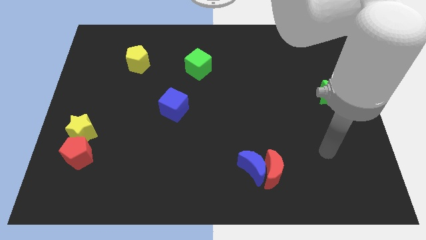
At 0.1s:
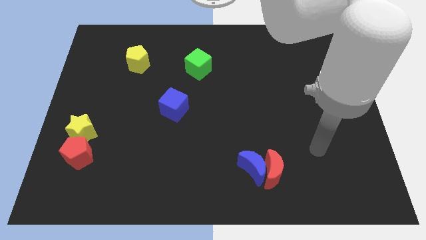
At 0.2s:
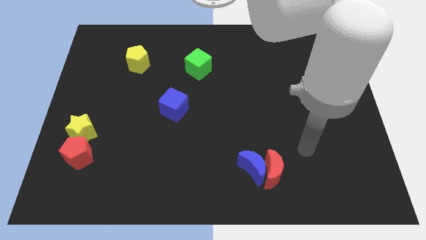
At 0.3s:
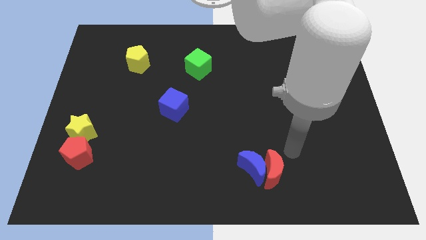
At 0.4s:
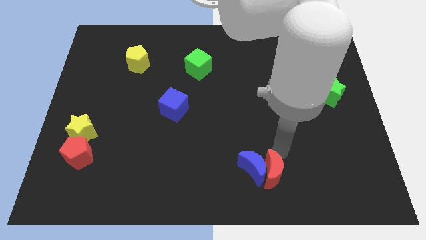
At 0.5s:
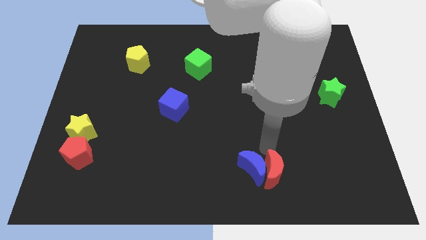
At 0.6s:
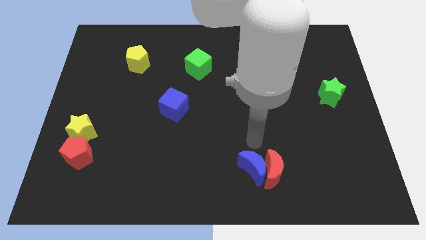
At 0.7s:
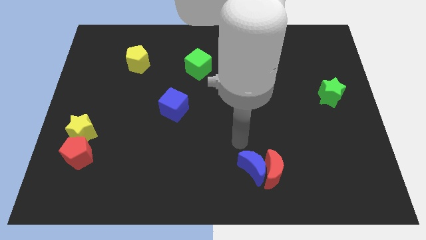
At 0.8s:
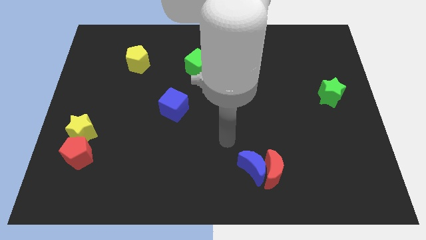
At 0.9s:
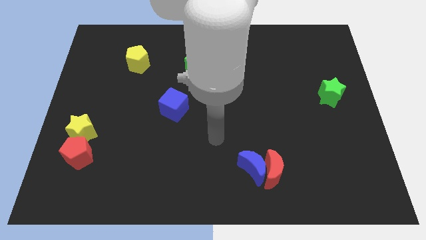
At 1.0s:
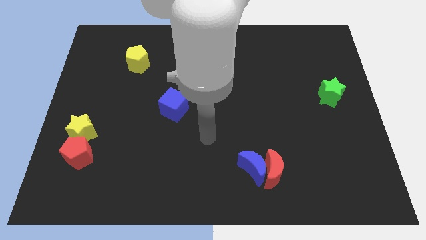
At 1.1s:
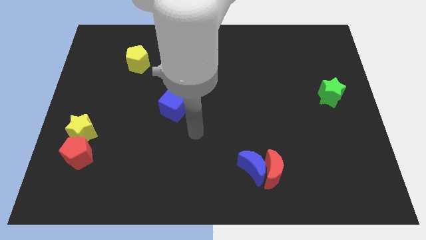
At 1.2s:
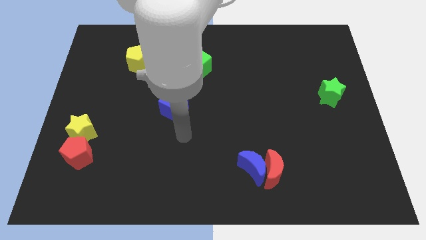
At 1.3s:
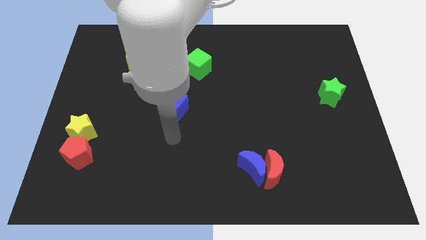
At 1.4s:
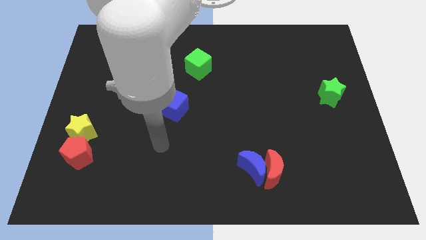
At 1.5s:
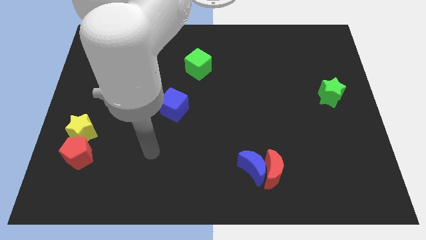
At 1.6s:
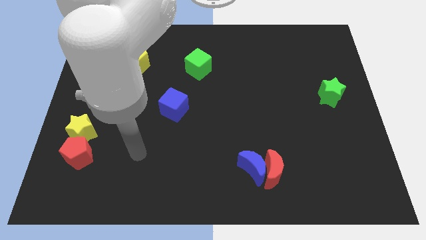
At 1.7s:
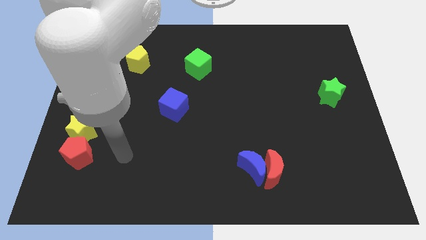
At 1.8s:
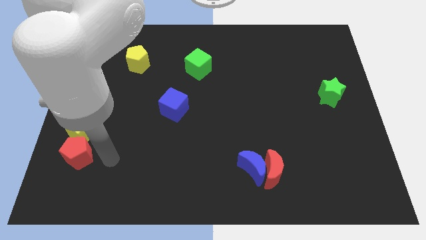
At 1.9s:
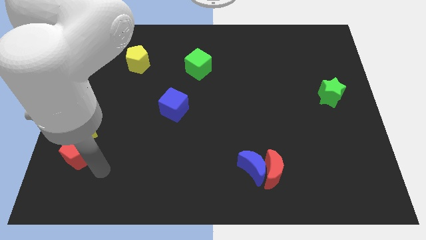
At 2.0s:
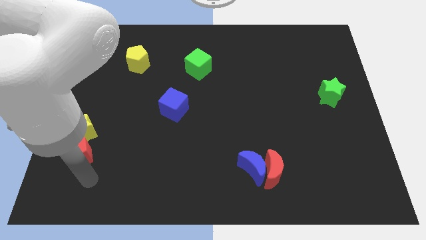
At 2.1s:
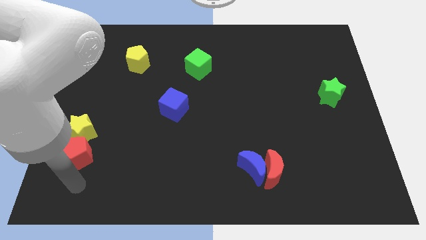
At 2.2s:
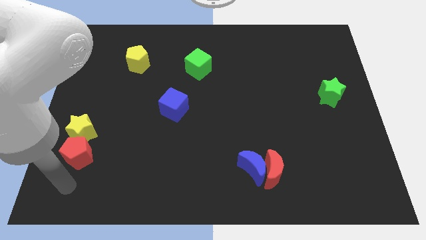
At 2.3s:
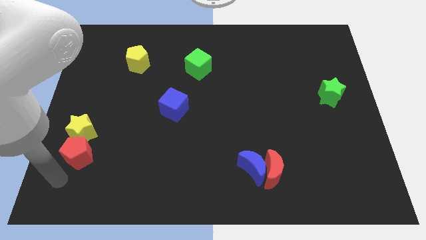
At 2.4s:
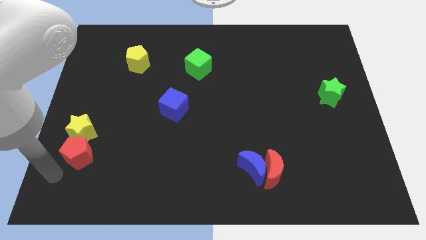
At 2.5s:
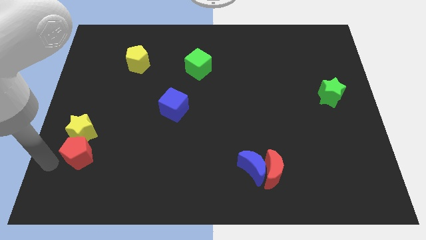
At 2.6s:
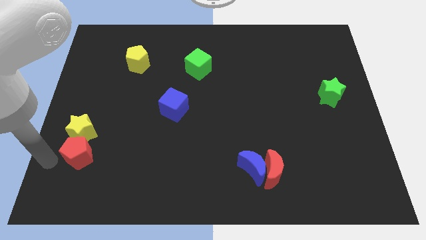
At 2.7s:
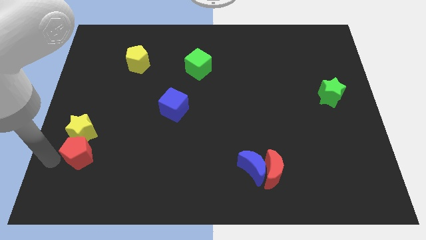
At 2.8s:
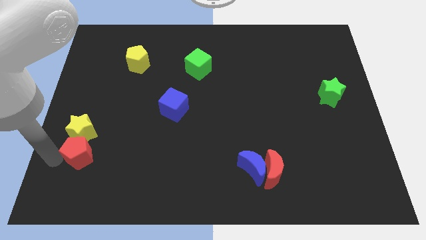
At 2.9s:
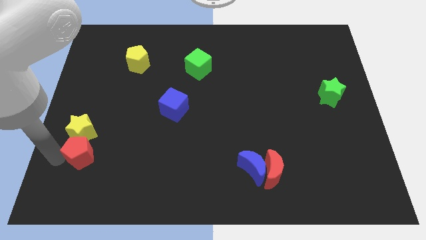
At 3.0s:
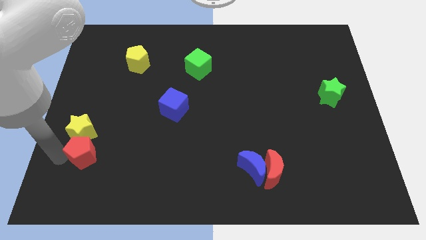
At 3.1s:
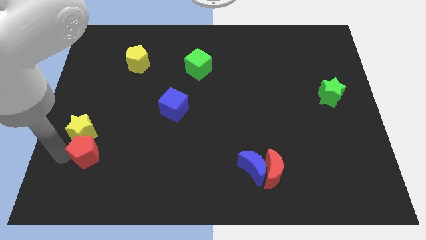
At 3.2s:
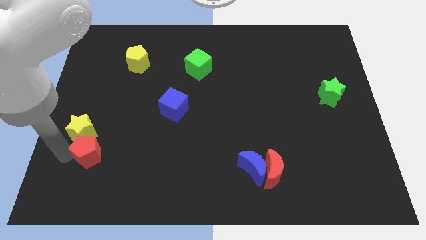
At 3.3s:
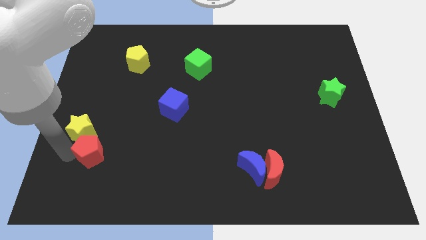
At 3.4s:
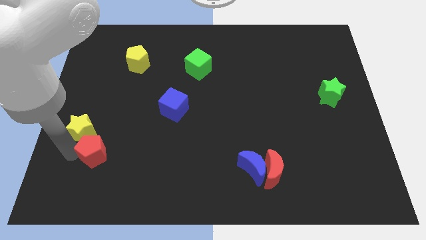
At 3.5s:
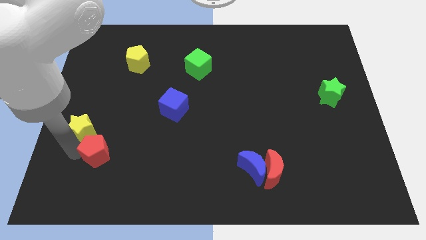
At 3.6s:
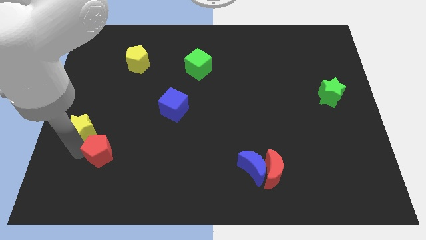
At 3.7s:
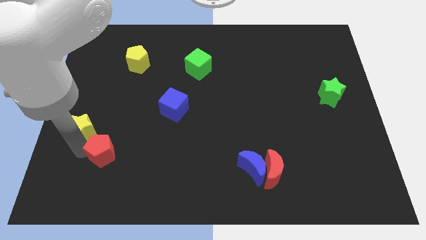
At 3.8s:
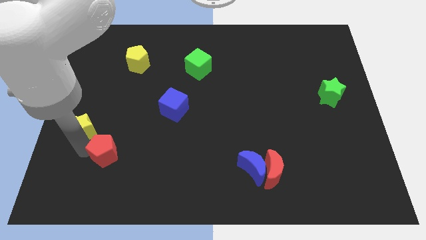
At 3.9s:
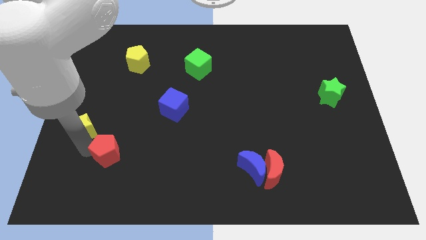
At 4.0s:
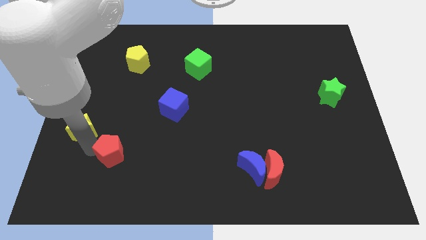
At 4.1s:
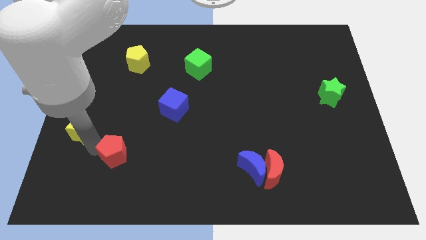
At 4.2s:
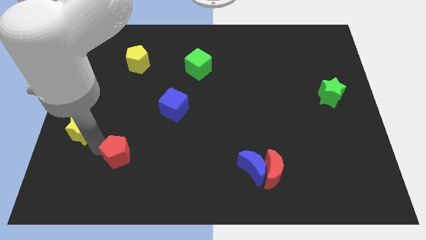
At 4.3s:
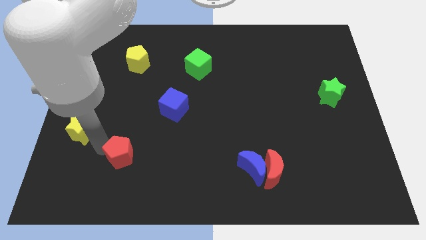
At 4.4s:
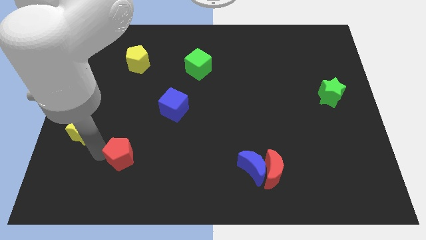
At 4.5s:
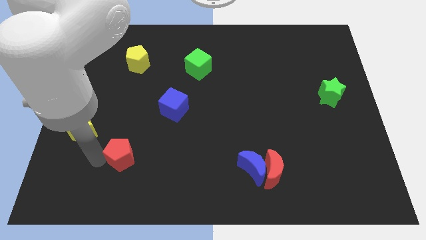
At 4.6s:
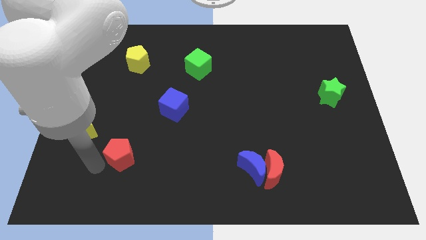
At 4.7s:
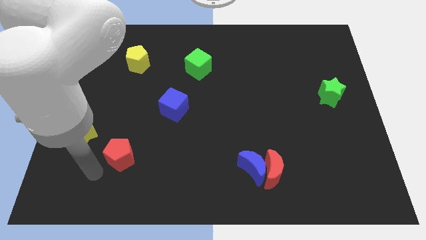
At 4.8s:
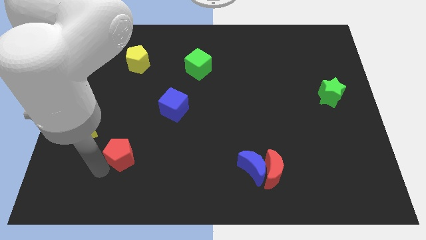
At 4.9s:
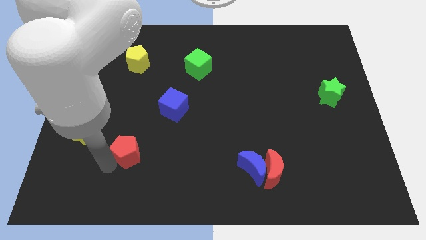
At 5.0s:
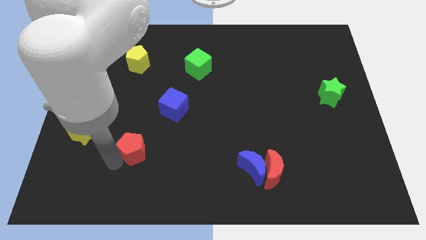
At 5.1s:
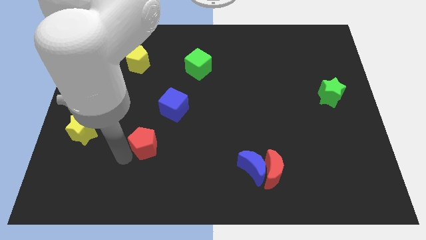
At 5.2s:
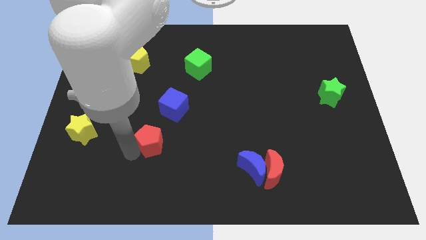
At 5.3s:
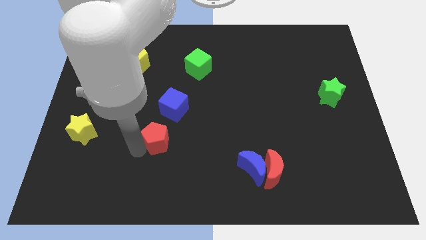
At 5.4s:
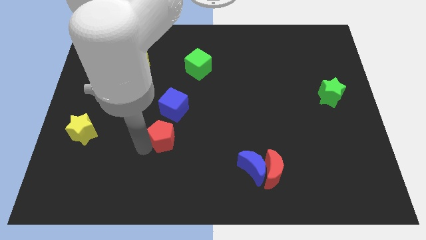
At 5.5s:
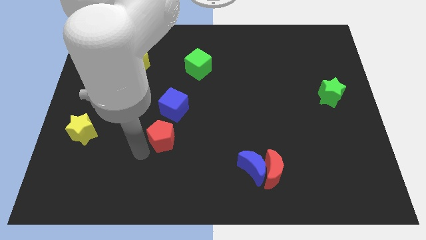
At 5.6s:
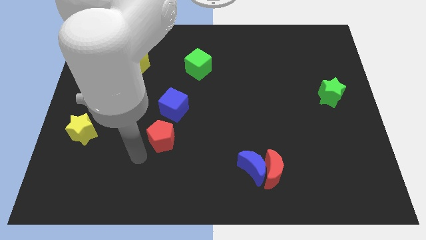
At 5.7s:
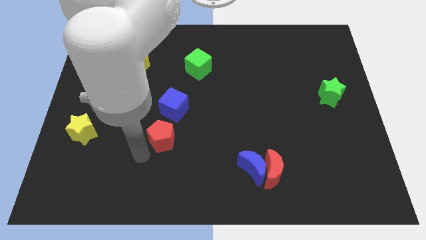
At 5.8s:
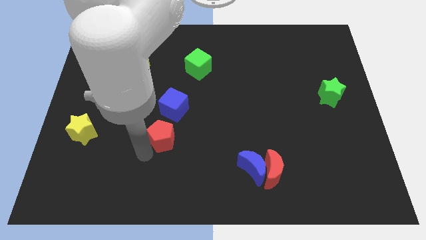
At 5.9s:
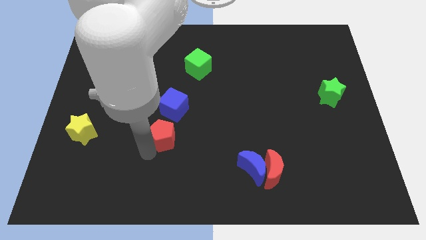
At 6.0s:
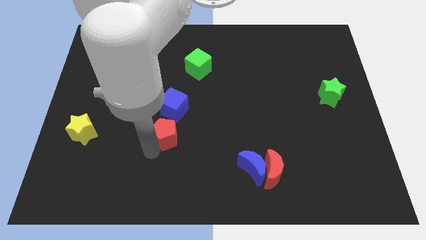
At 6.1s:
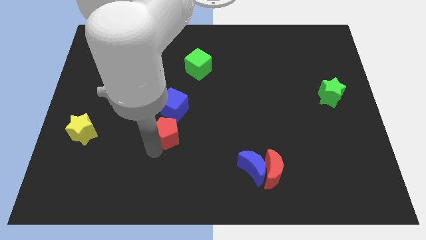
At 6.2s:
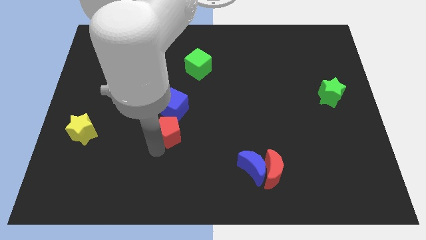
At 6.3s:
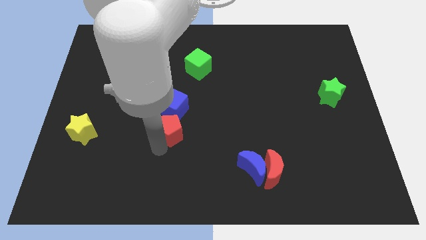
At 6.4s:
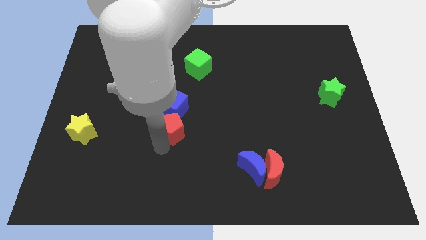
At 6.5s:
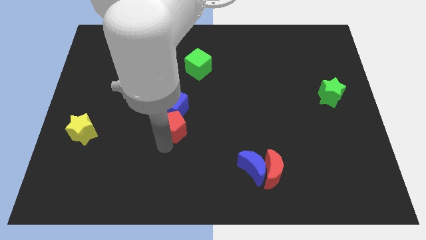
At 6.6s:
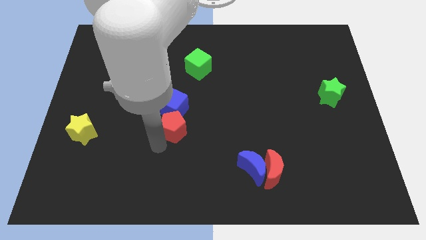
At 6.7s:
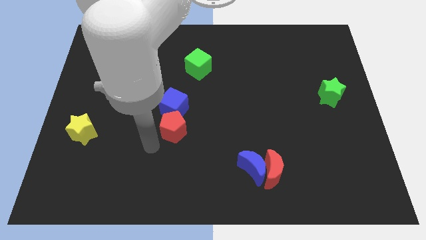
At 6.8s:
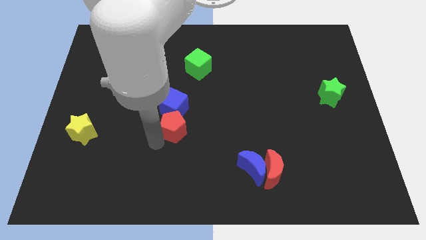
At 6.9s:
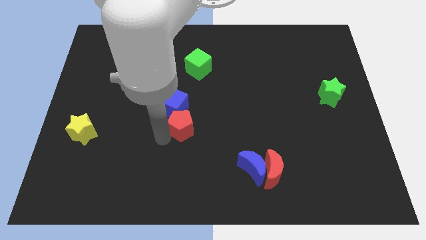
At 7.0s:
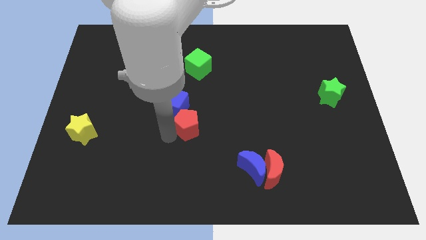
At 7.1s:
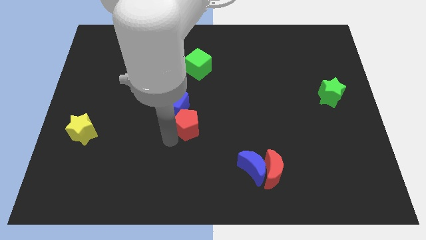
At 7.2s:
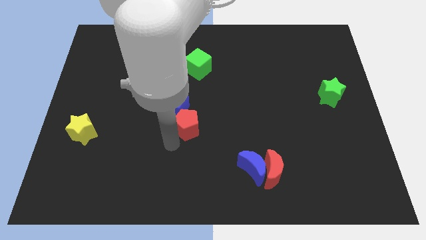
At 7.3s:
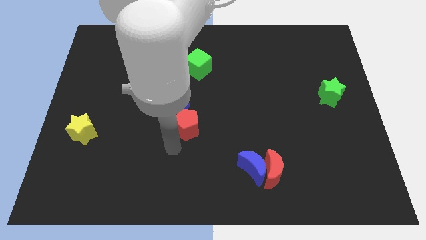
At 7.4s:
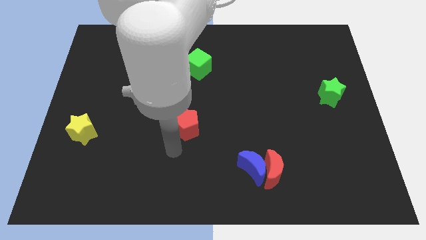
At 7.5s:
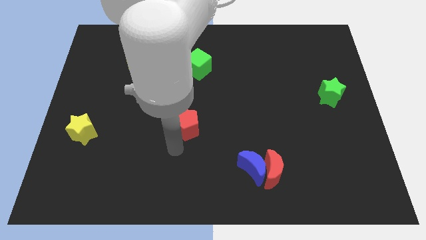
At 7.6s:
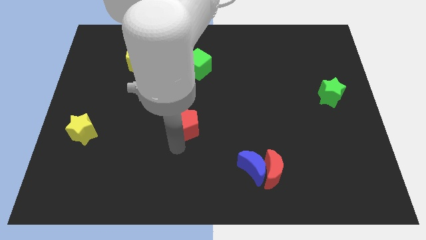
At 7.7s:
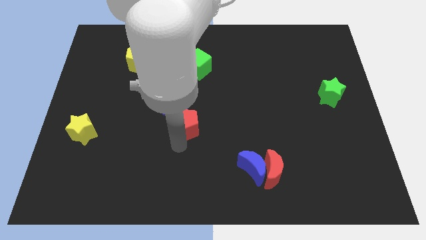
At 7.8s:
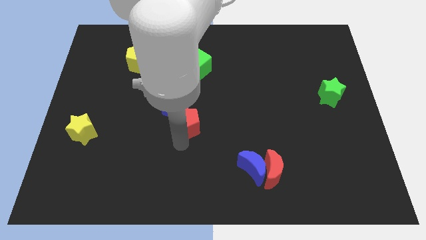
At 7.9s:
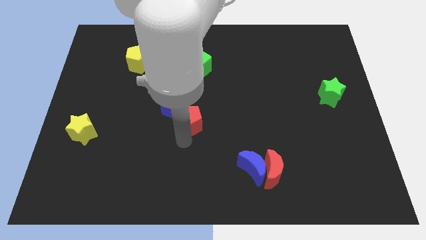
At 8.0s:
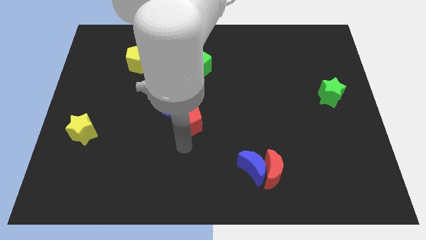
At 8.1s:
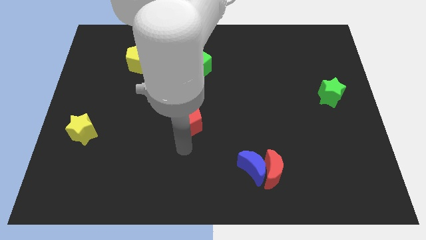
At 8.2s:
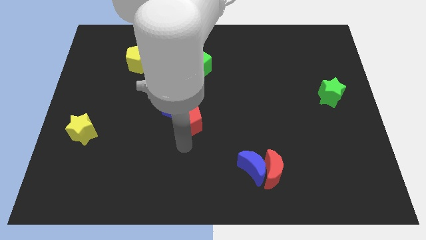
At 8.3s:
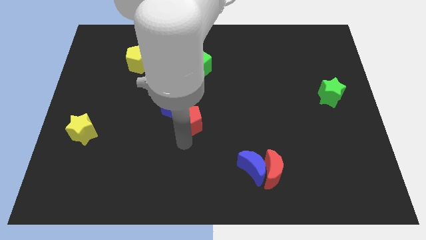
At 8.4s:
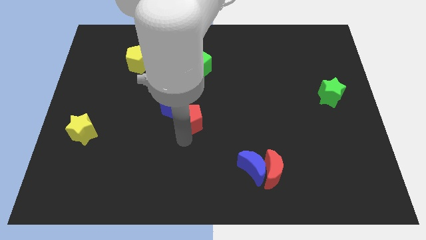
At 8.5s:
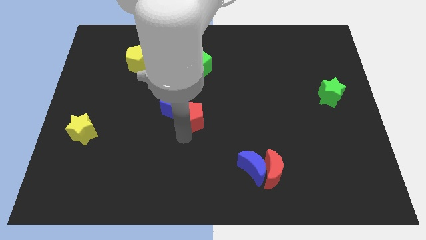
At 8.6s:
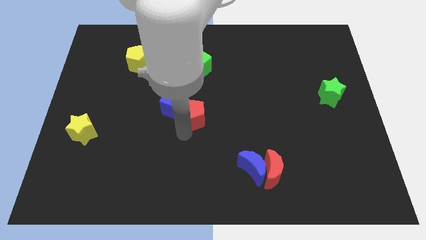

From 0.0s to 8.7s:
slide the red pentagon below the green cube
